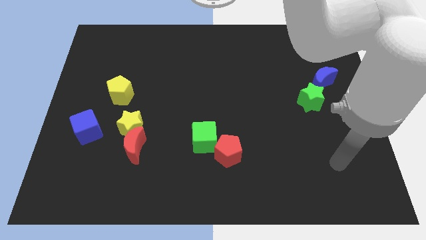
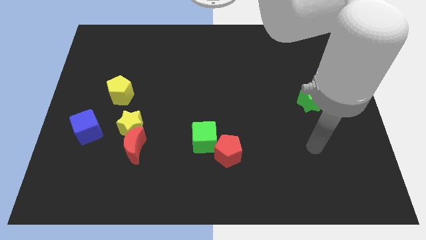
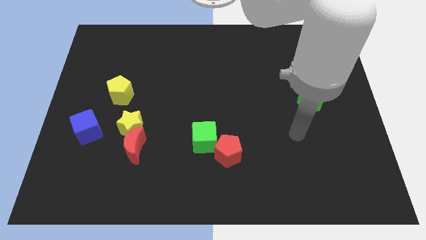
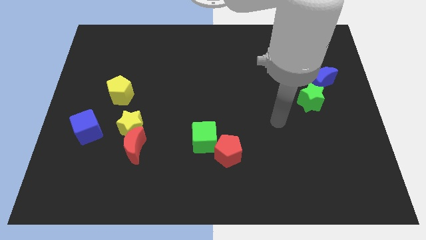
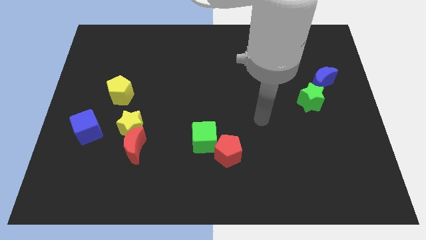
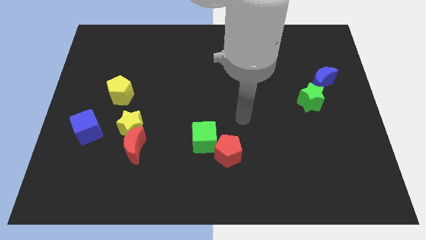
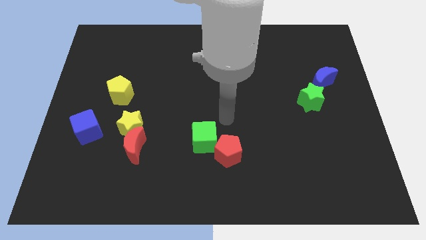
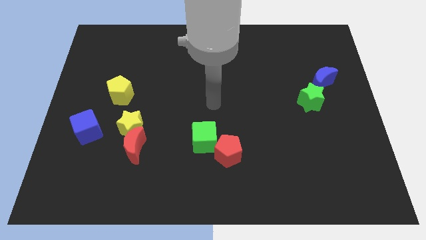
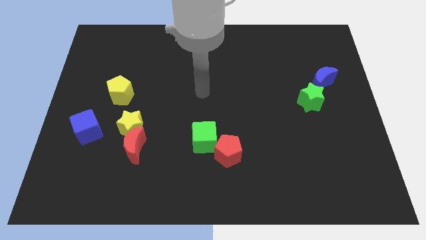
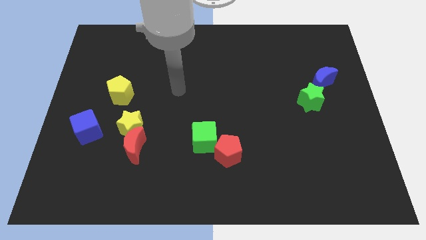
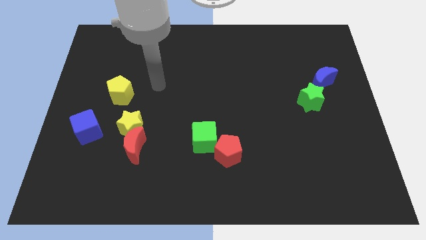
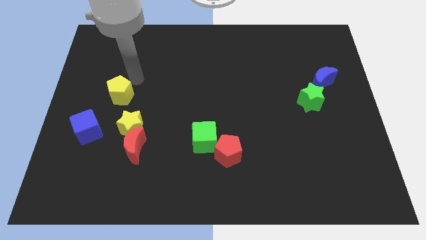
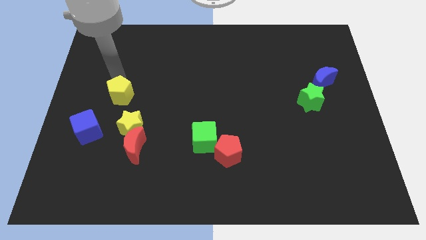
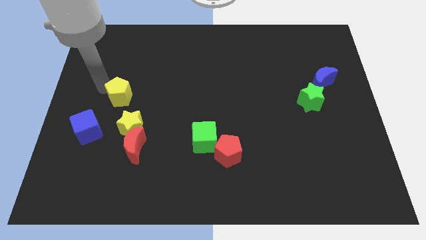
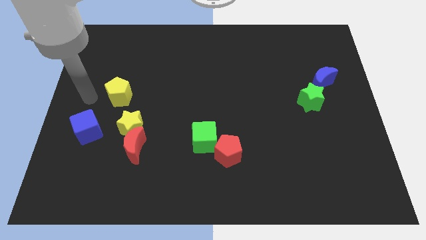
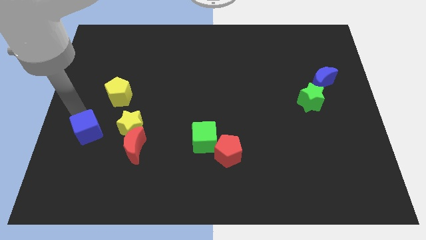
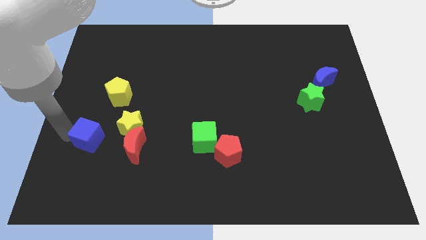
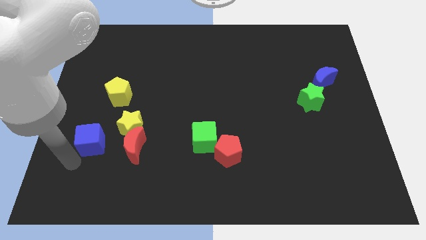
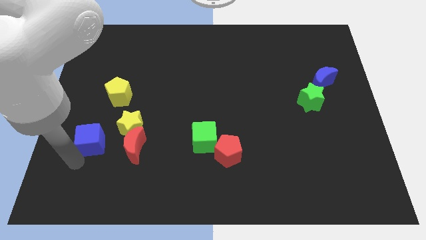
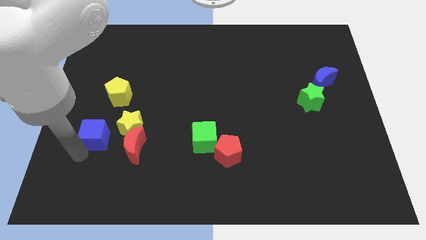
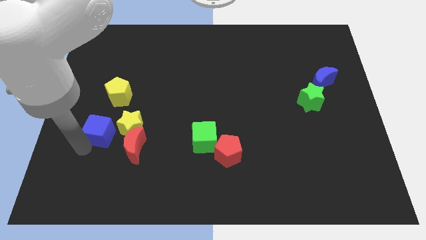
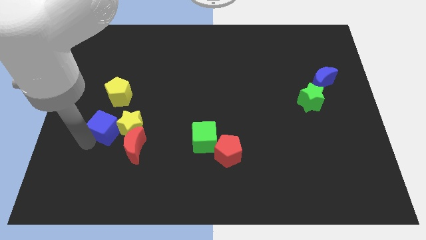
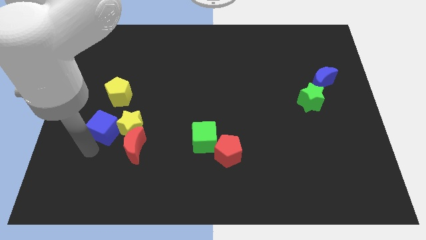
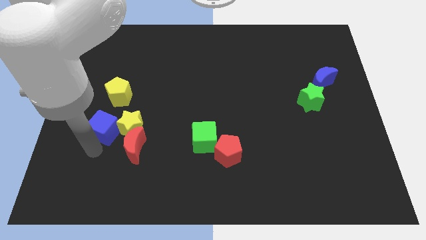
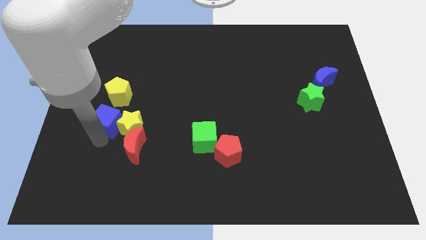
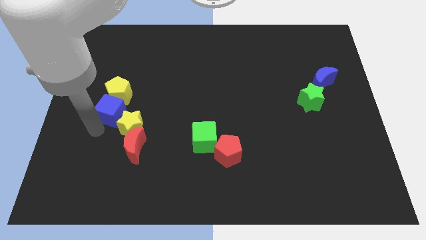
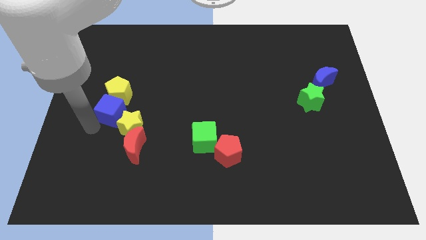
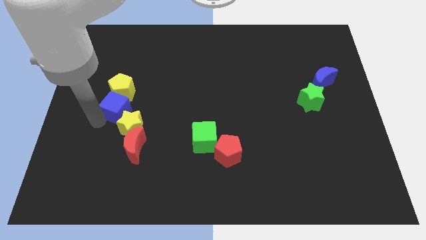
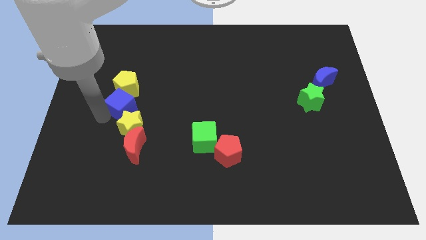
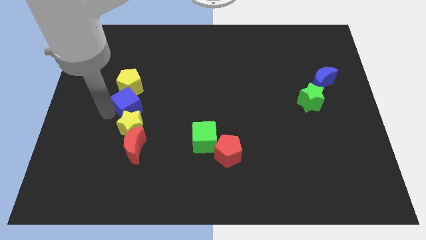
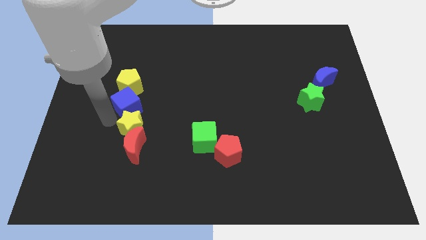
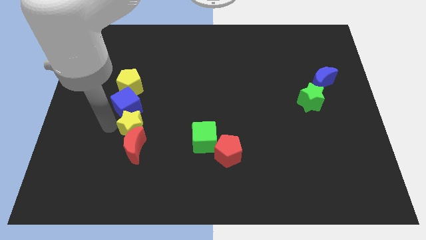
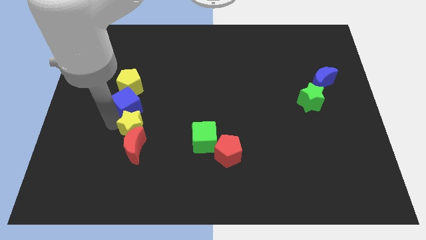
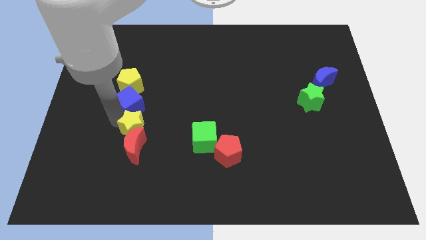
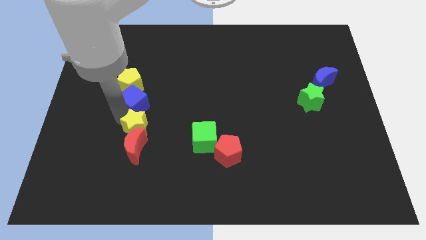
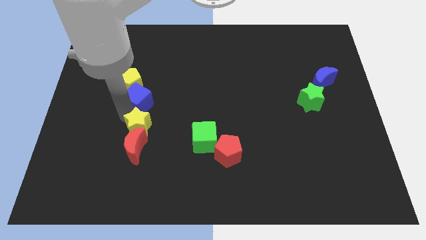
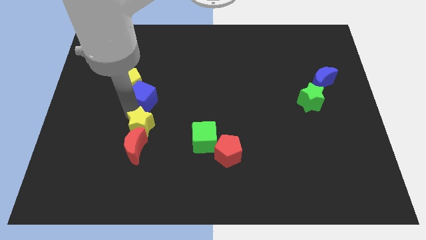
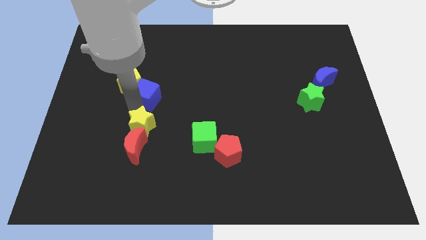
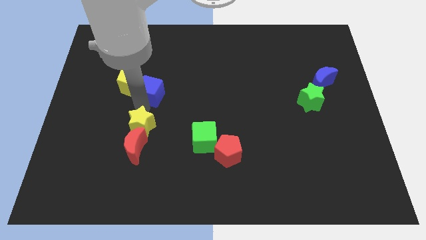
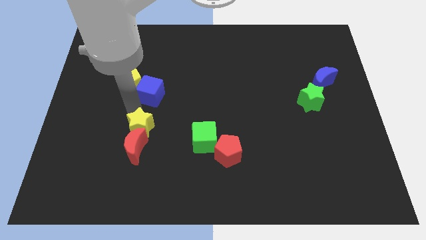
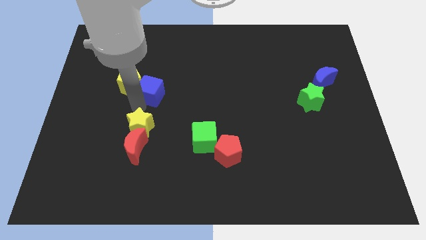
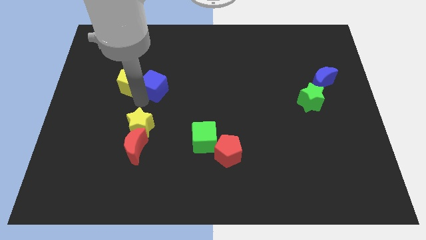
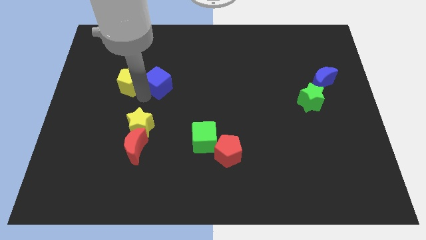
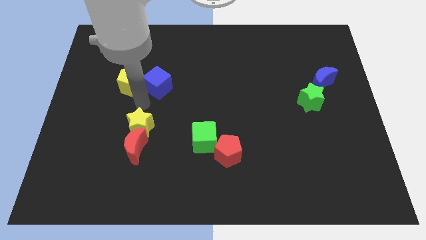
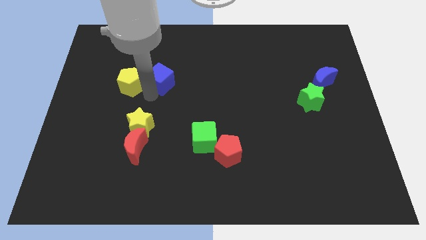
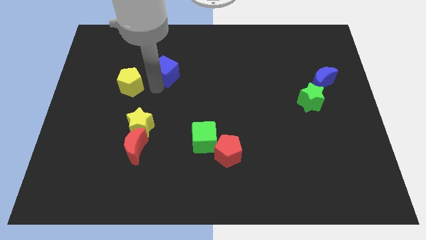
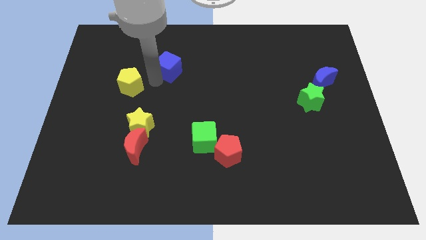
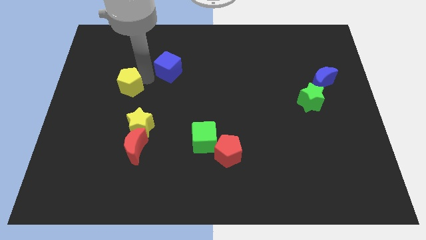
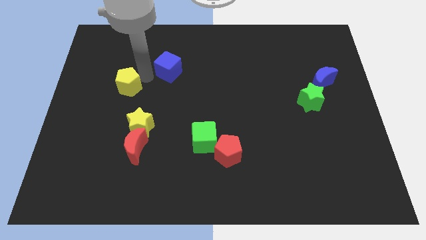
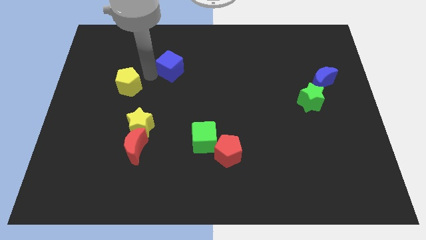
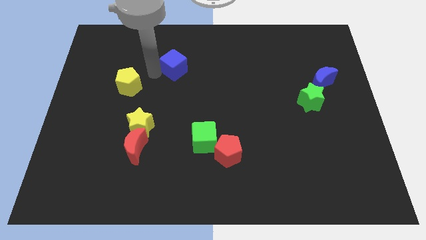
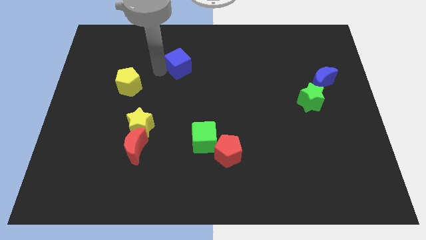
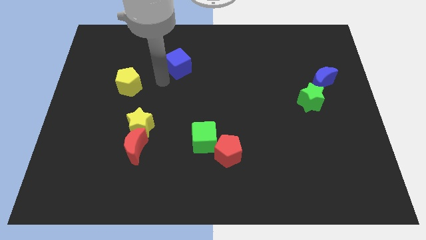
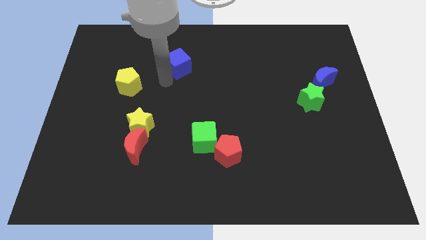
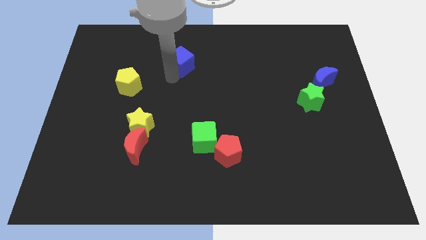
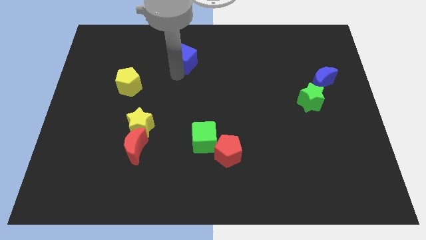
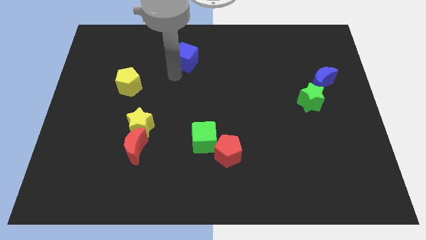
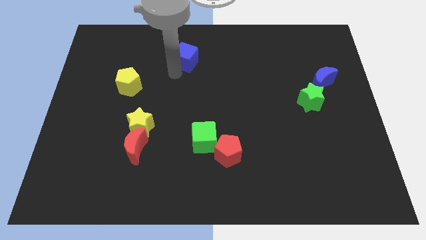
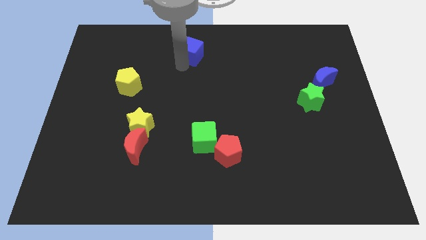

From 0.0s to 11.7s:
push the blue cube to the top side
